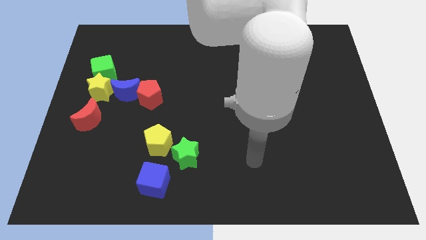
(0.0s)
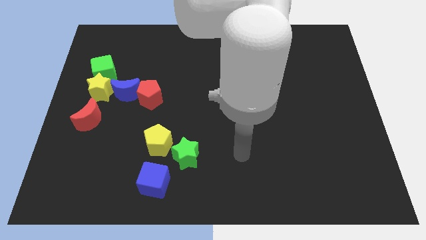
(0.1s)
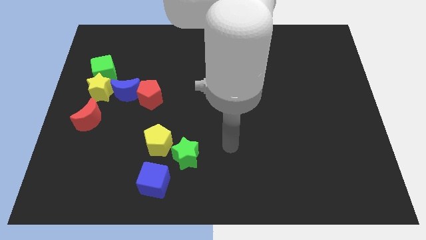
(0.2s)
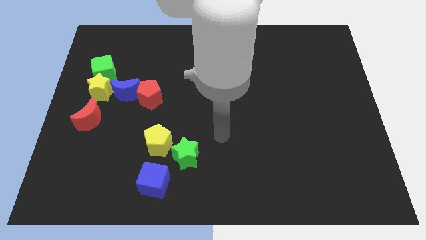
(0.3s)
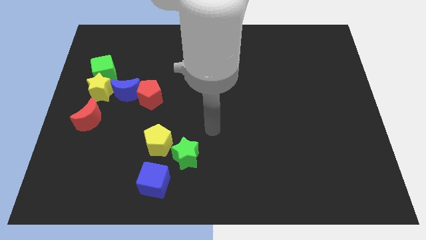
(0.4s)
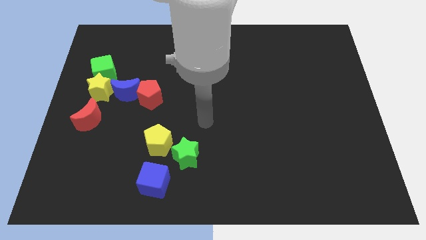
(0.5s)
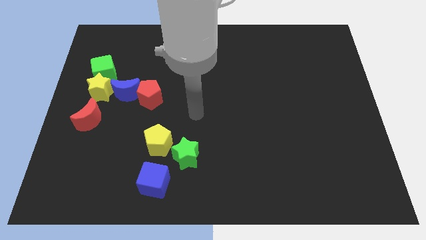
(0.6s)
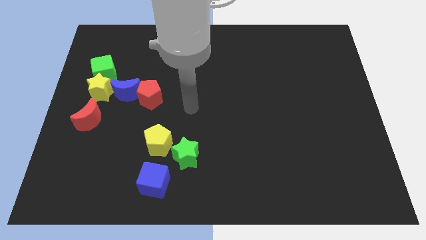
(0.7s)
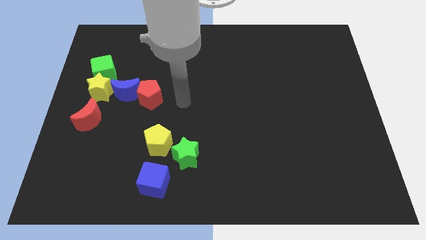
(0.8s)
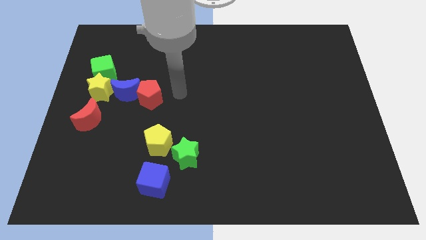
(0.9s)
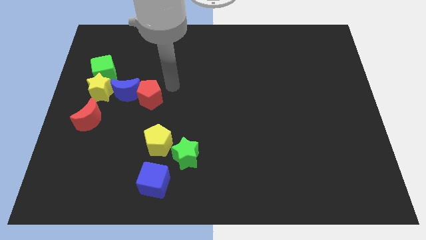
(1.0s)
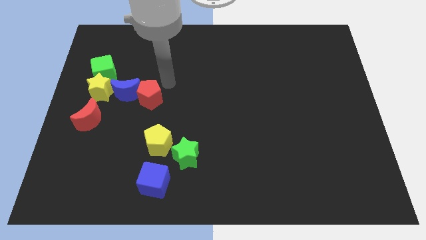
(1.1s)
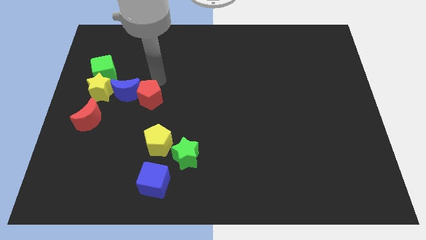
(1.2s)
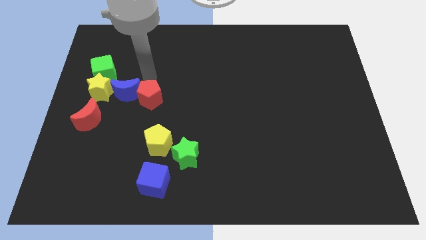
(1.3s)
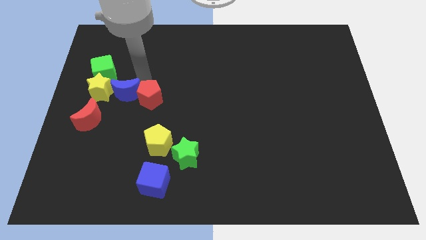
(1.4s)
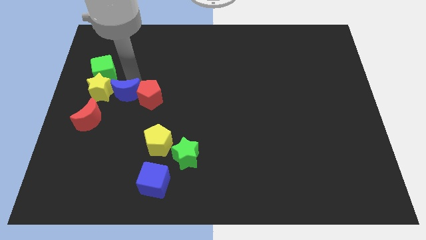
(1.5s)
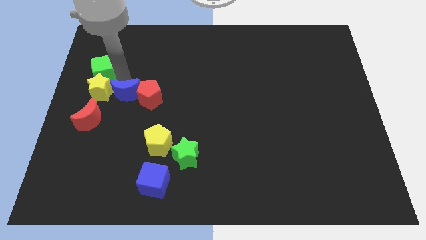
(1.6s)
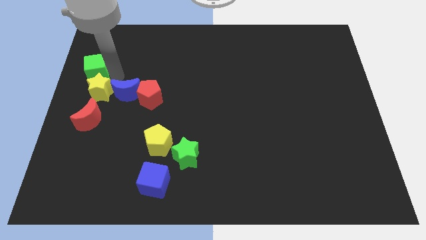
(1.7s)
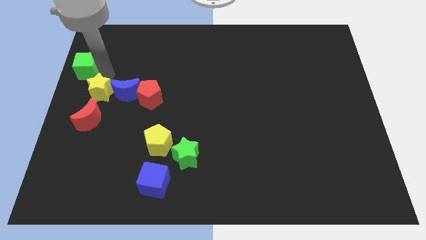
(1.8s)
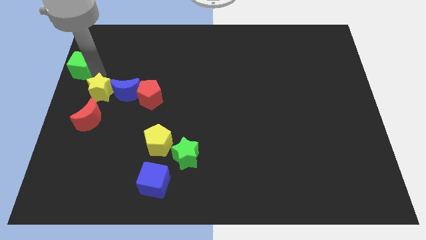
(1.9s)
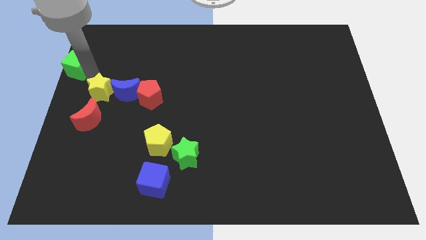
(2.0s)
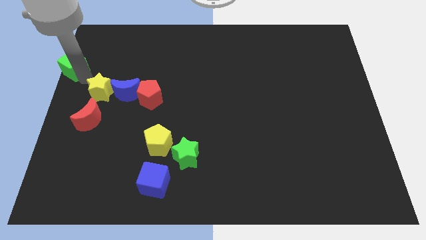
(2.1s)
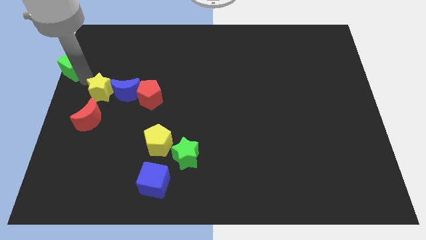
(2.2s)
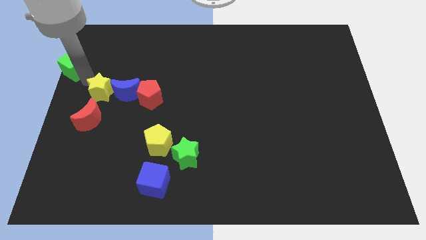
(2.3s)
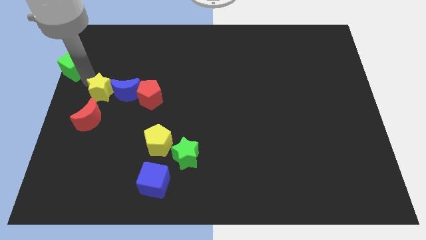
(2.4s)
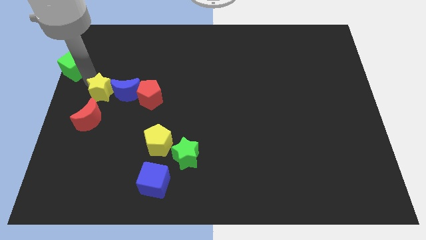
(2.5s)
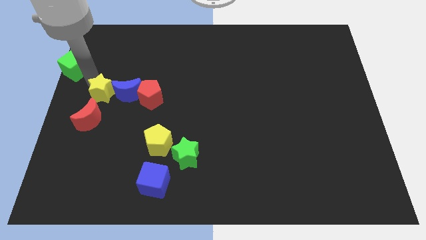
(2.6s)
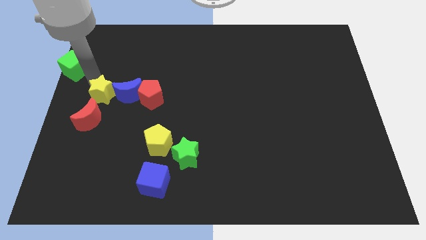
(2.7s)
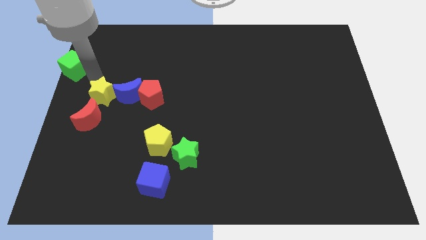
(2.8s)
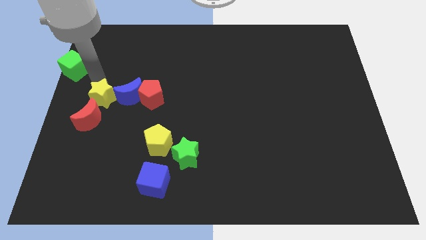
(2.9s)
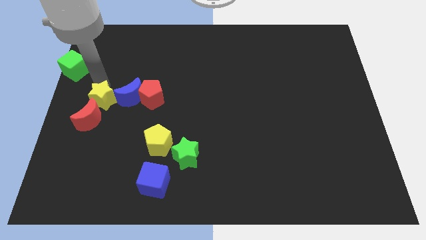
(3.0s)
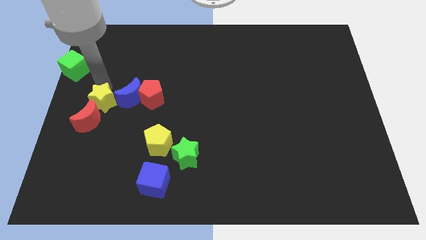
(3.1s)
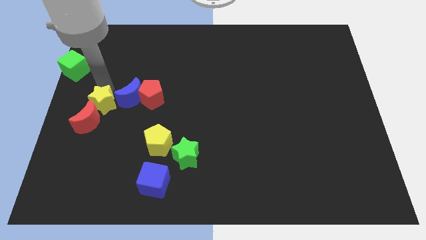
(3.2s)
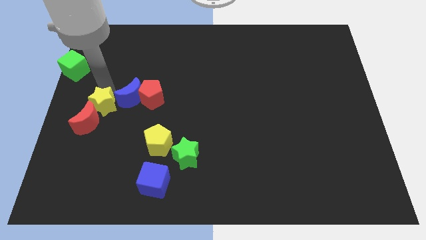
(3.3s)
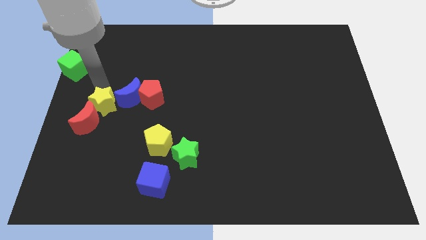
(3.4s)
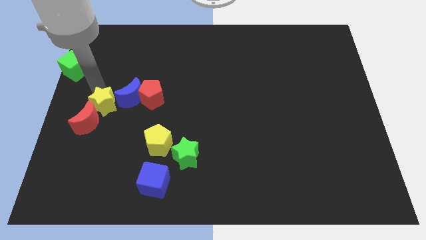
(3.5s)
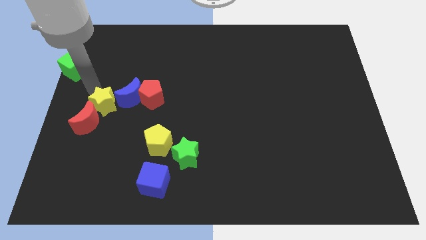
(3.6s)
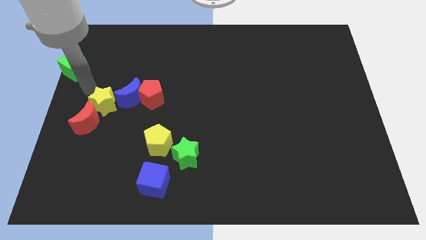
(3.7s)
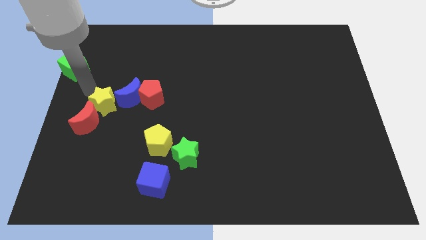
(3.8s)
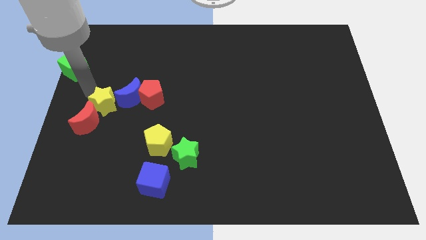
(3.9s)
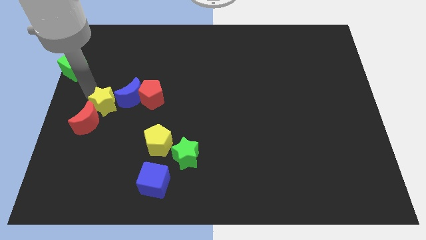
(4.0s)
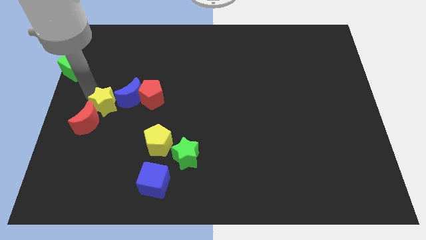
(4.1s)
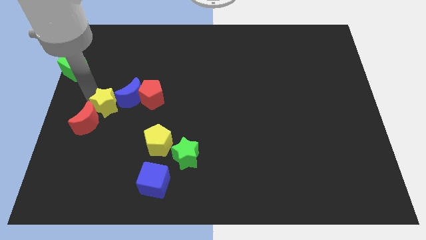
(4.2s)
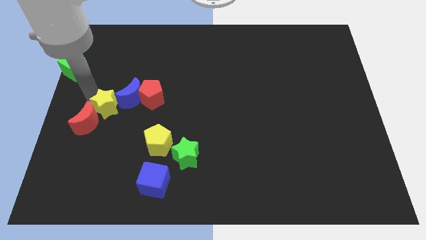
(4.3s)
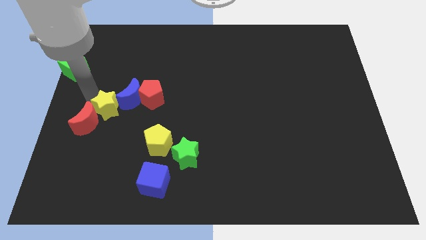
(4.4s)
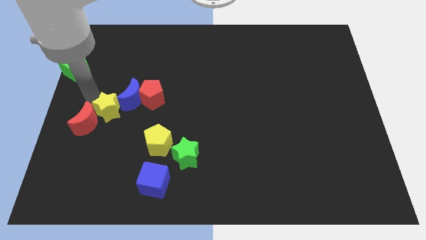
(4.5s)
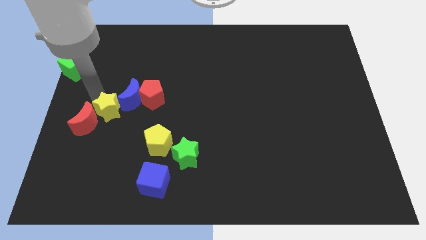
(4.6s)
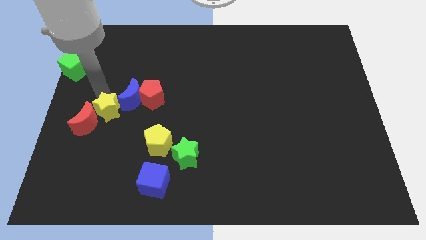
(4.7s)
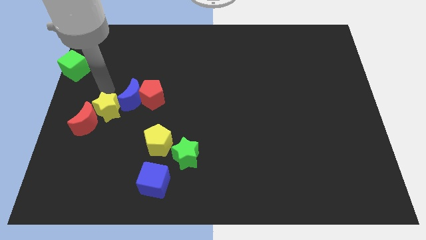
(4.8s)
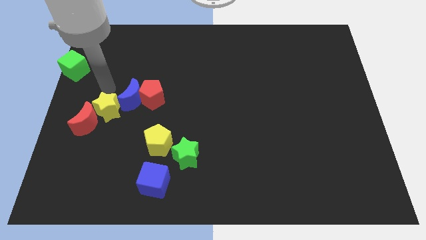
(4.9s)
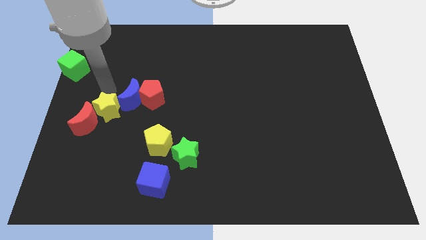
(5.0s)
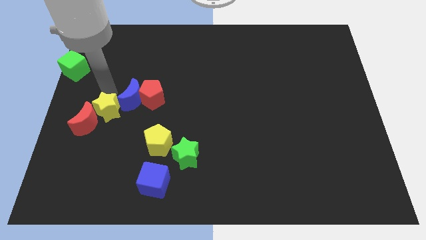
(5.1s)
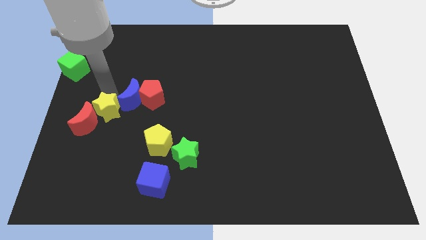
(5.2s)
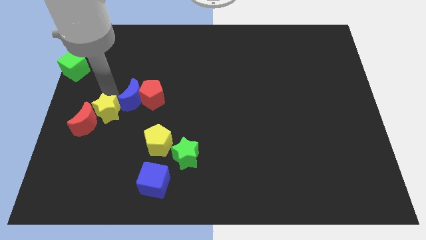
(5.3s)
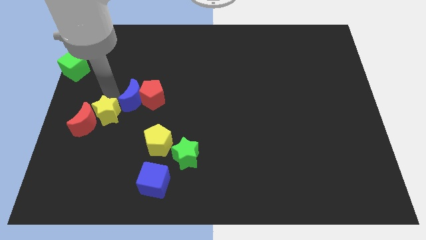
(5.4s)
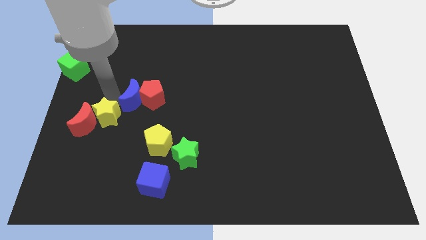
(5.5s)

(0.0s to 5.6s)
slightly move the yellow star down

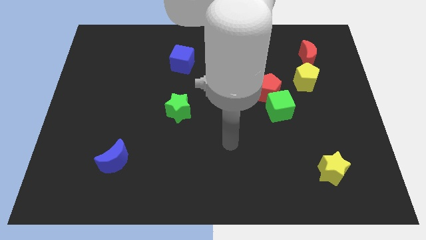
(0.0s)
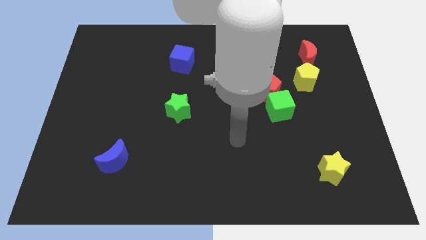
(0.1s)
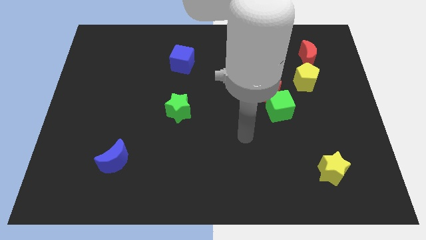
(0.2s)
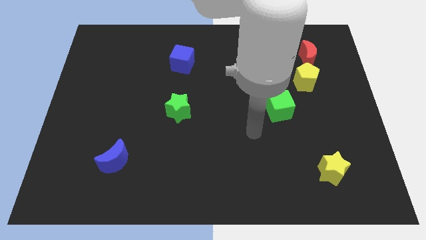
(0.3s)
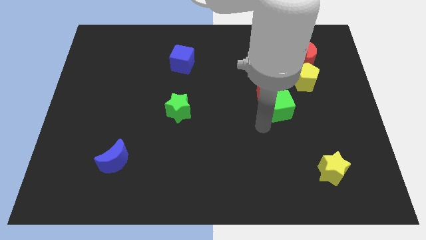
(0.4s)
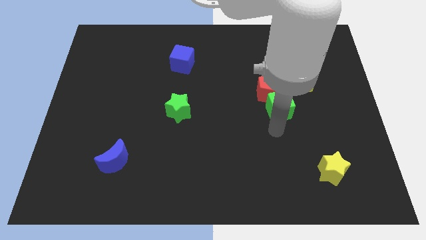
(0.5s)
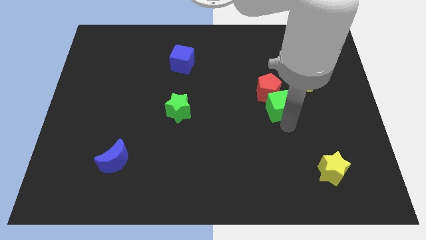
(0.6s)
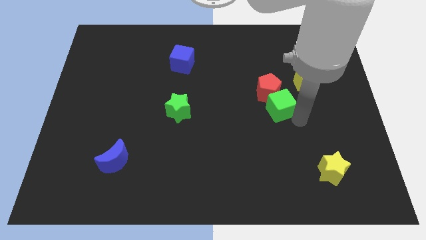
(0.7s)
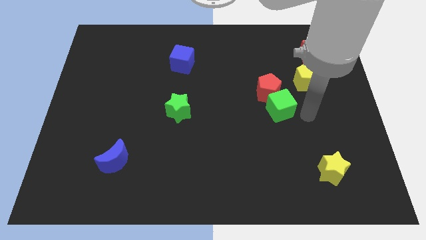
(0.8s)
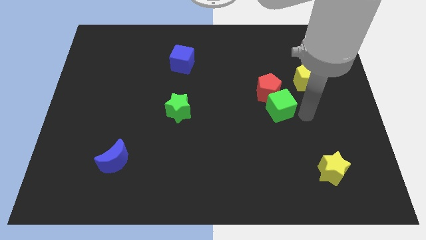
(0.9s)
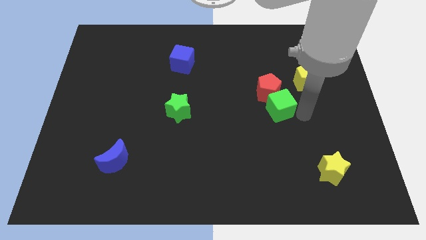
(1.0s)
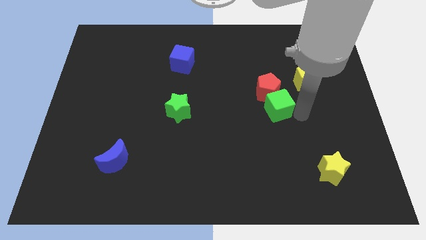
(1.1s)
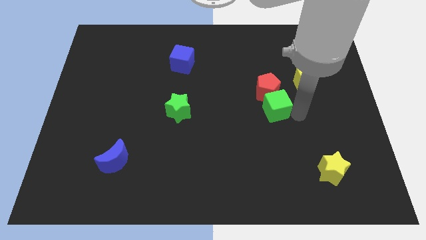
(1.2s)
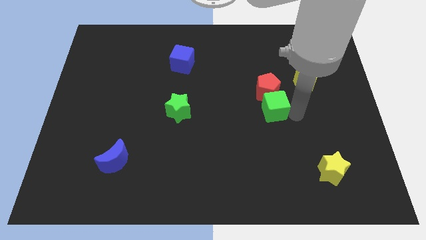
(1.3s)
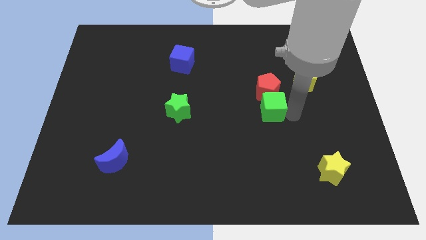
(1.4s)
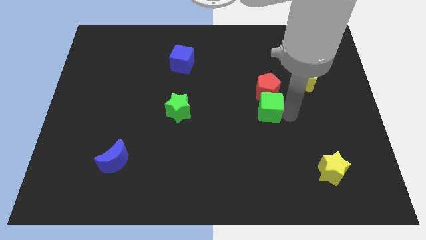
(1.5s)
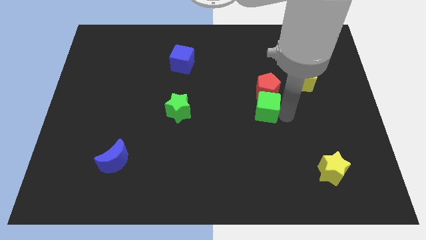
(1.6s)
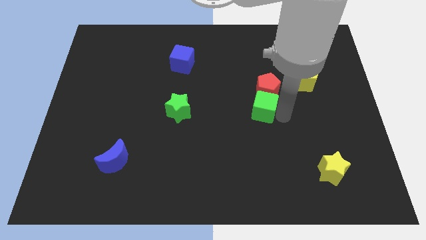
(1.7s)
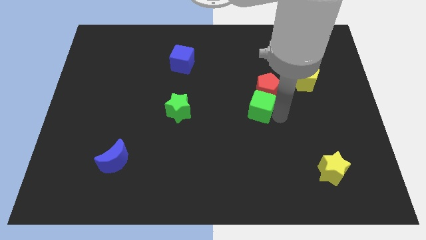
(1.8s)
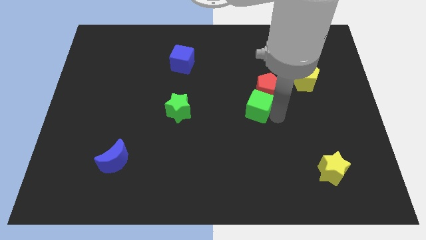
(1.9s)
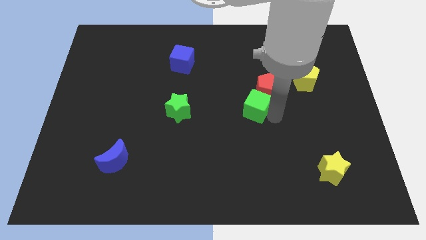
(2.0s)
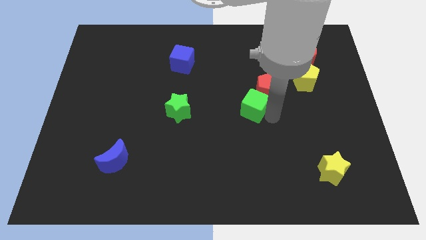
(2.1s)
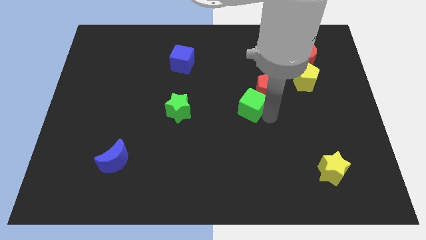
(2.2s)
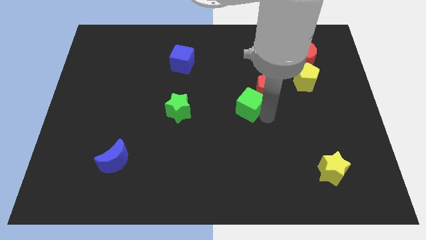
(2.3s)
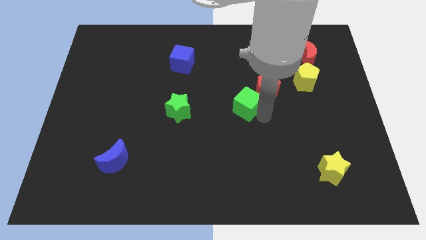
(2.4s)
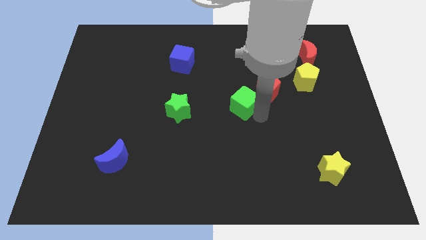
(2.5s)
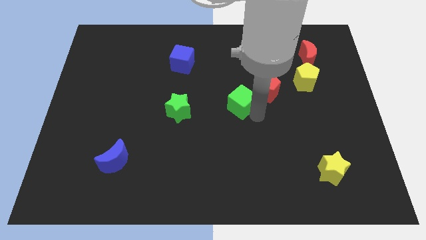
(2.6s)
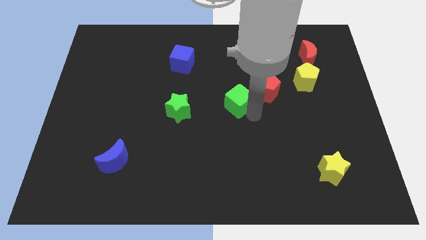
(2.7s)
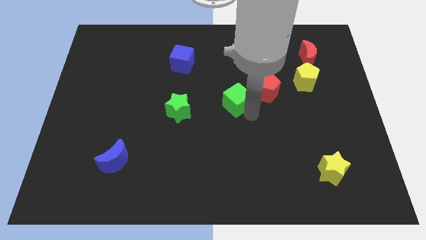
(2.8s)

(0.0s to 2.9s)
slide the green cube a bit diagonally up and to the left
